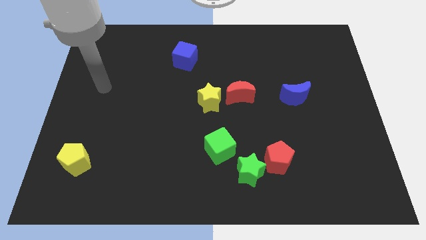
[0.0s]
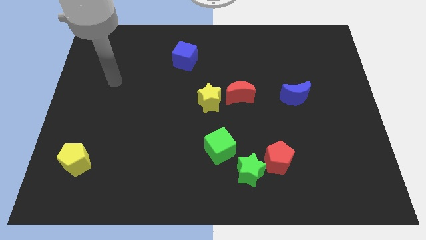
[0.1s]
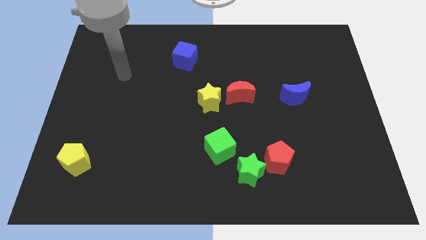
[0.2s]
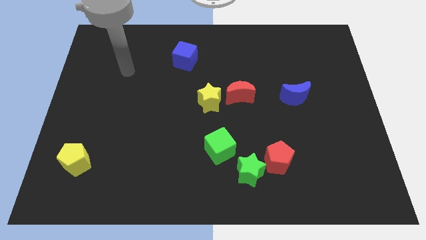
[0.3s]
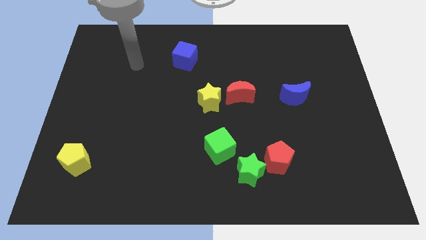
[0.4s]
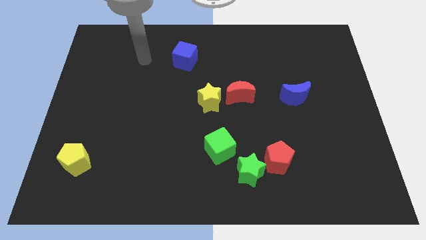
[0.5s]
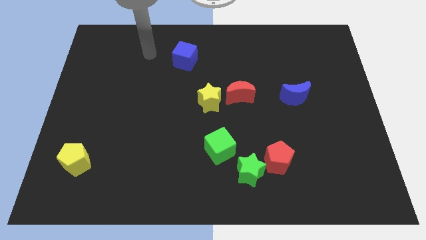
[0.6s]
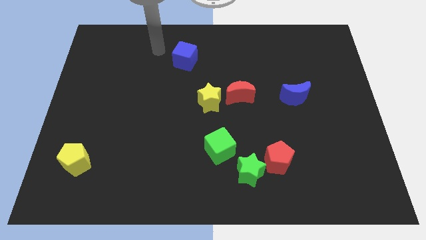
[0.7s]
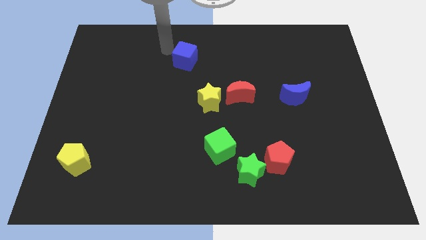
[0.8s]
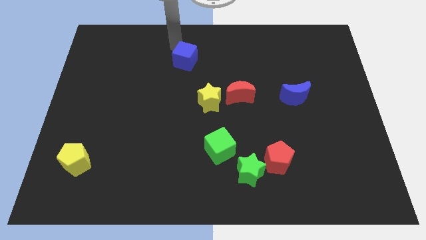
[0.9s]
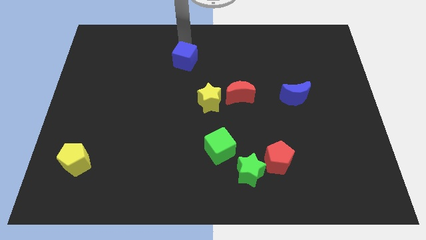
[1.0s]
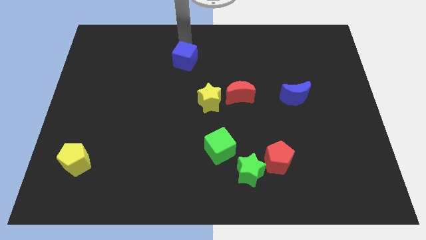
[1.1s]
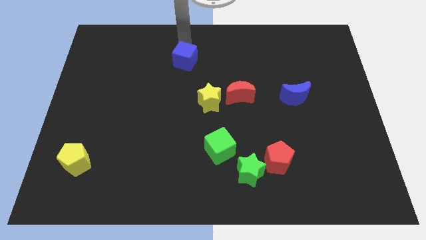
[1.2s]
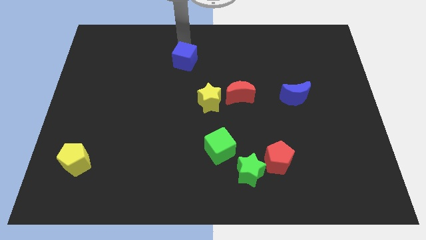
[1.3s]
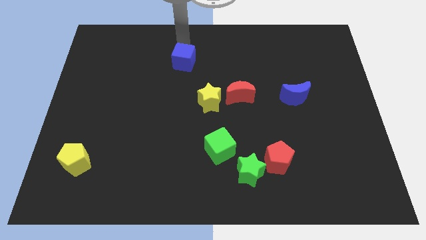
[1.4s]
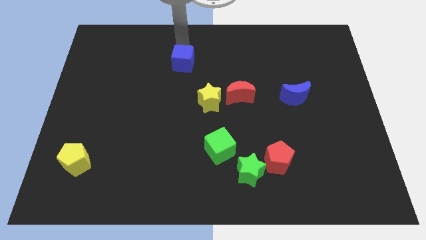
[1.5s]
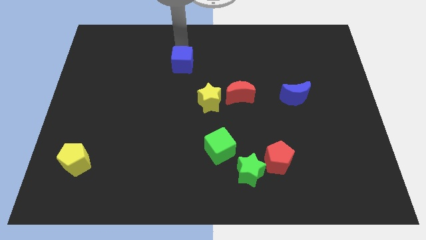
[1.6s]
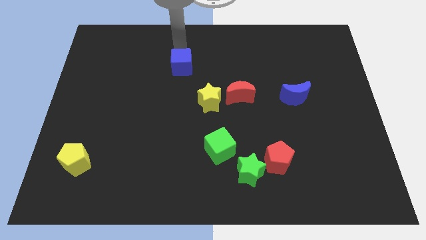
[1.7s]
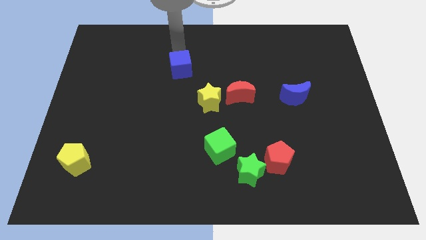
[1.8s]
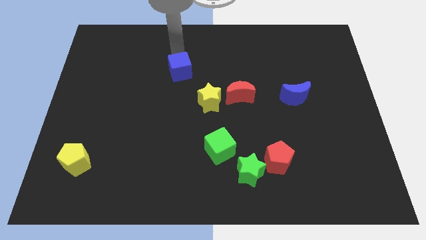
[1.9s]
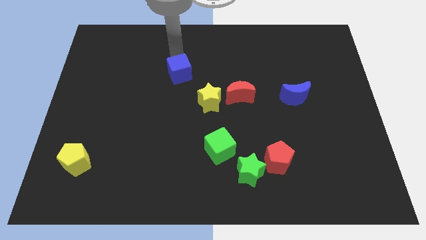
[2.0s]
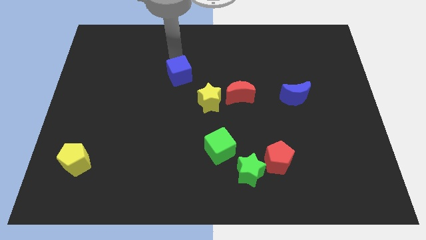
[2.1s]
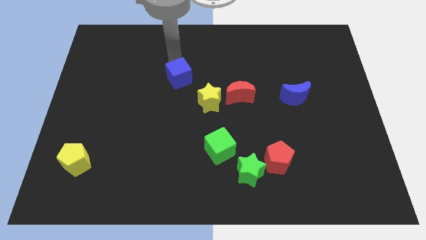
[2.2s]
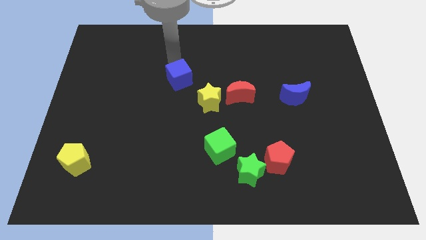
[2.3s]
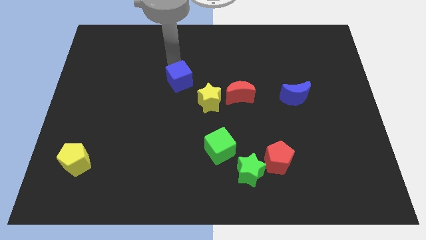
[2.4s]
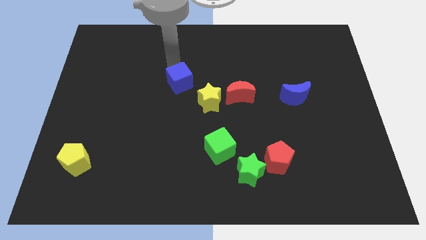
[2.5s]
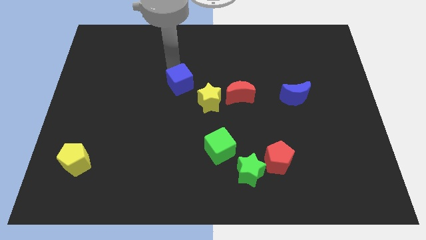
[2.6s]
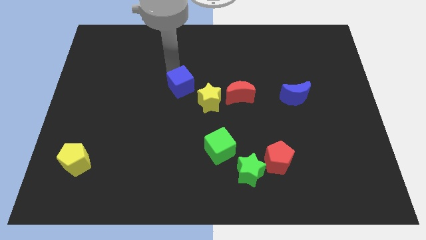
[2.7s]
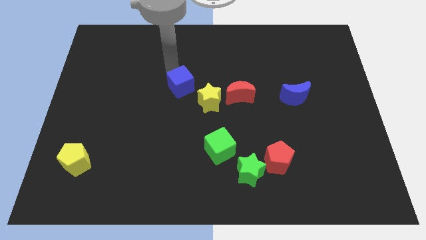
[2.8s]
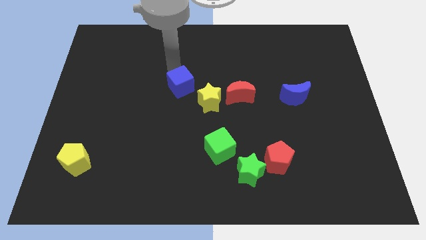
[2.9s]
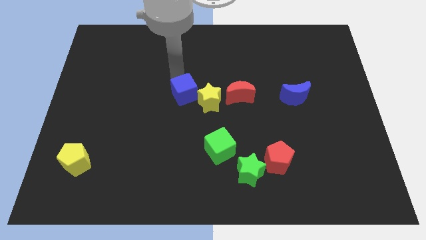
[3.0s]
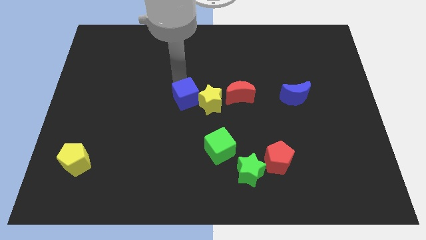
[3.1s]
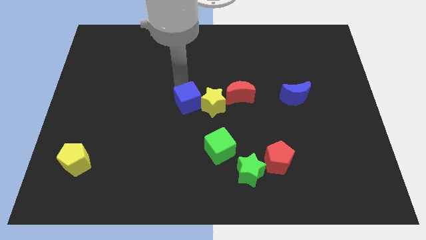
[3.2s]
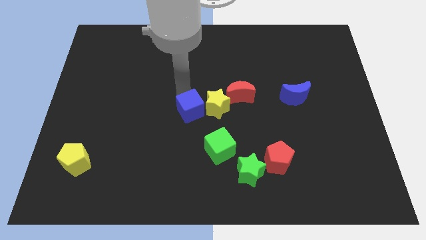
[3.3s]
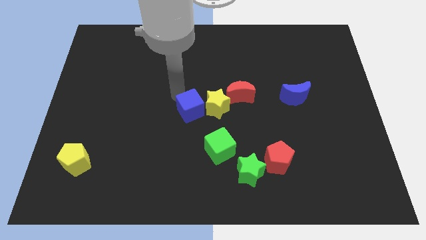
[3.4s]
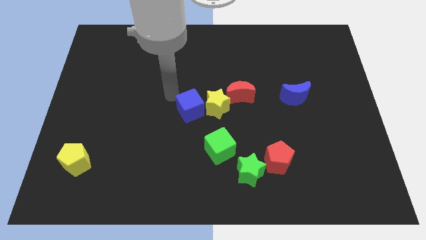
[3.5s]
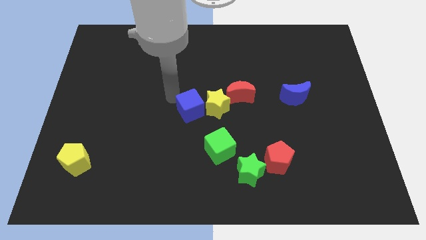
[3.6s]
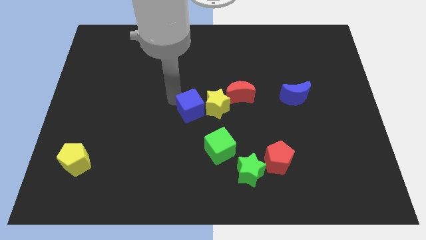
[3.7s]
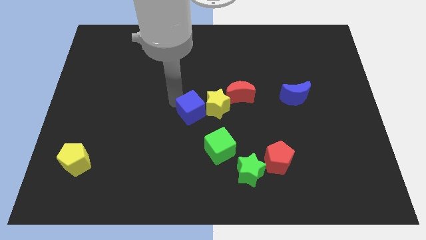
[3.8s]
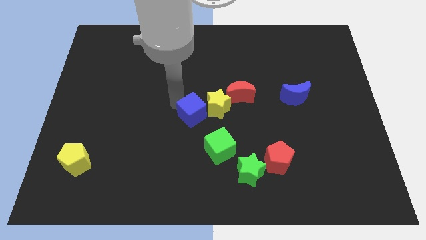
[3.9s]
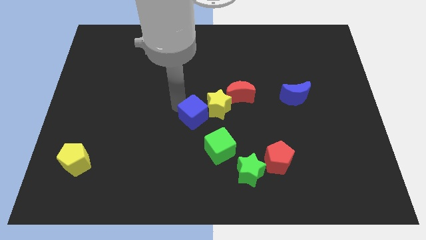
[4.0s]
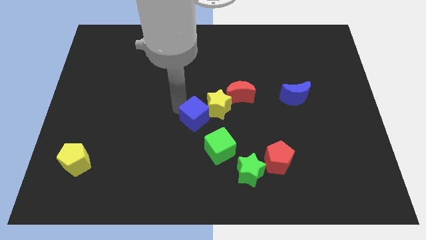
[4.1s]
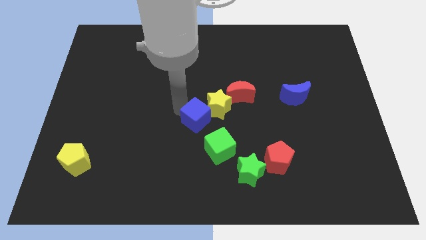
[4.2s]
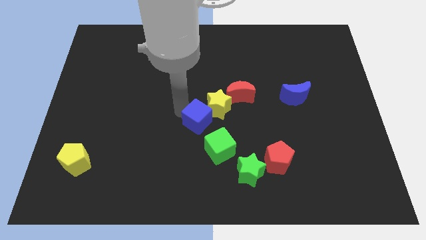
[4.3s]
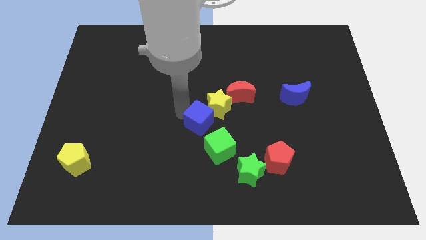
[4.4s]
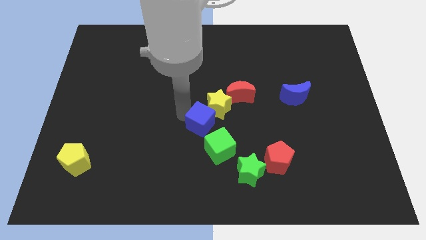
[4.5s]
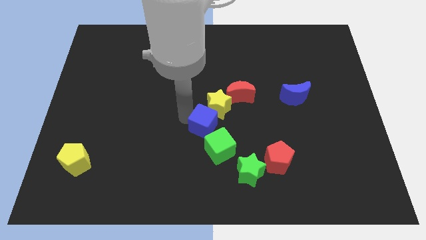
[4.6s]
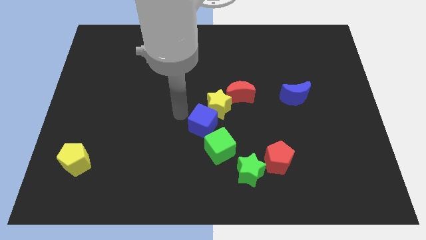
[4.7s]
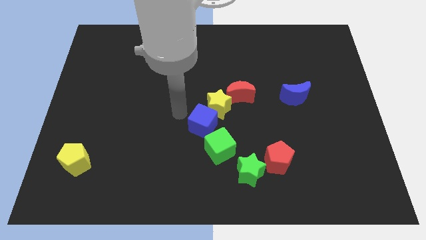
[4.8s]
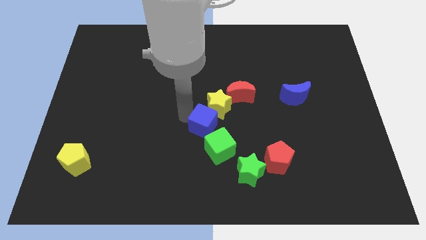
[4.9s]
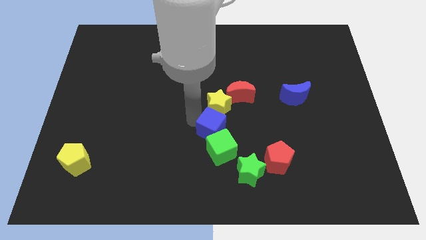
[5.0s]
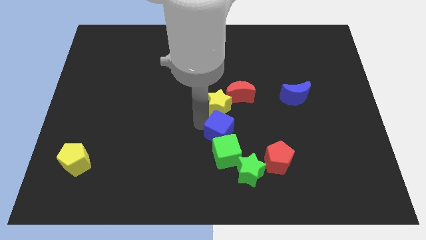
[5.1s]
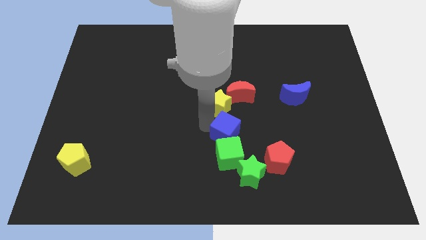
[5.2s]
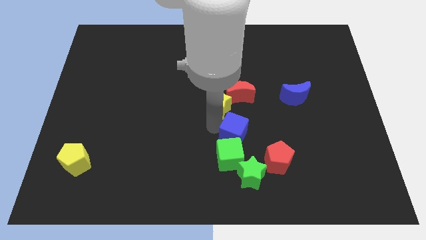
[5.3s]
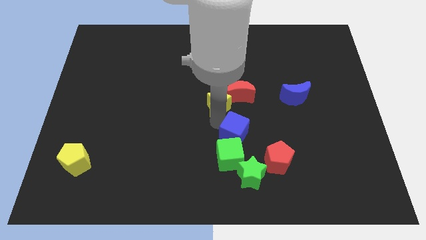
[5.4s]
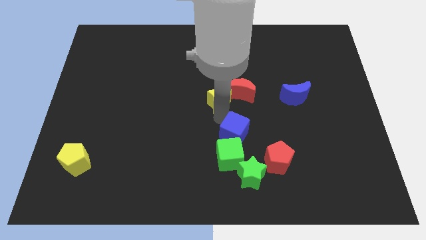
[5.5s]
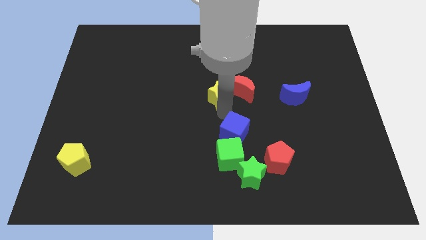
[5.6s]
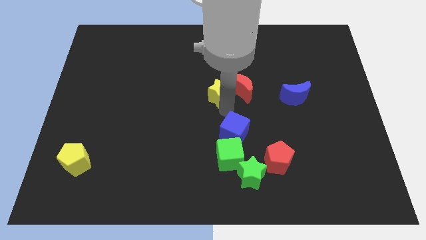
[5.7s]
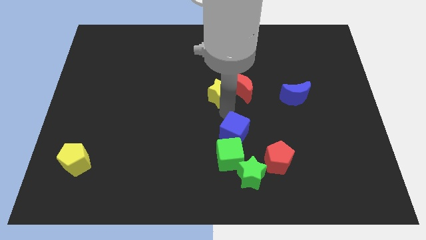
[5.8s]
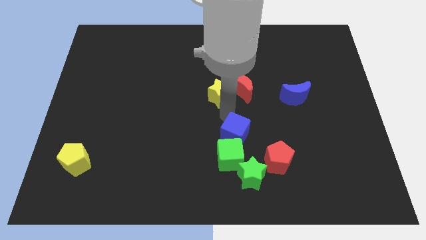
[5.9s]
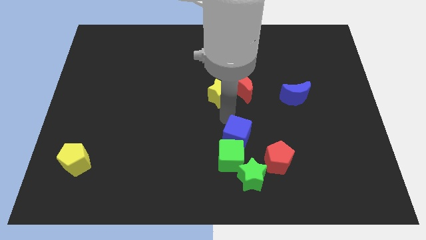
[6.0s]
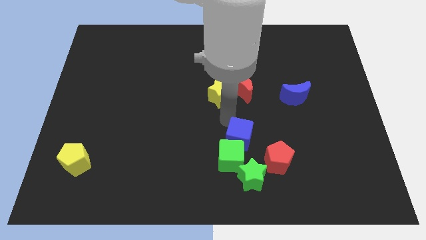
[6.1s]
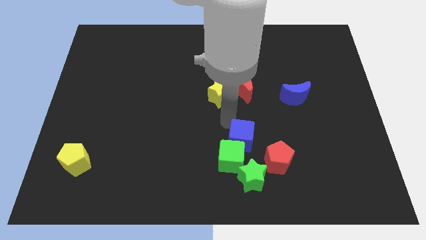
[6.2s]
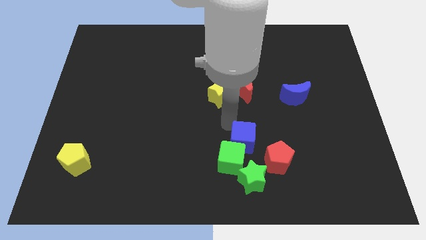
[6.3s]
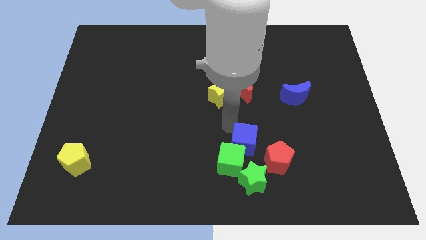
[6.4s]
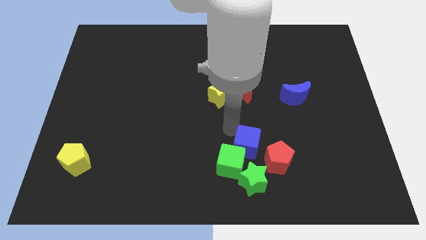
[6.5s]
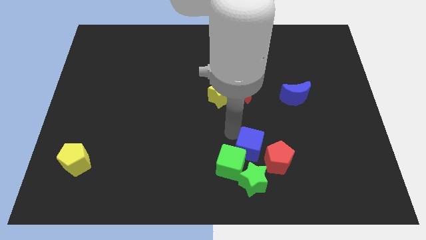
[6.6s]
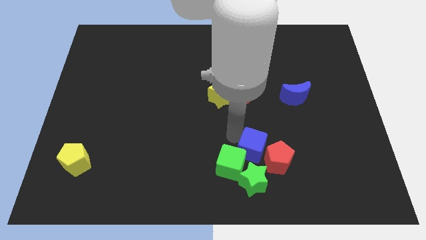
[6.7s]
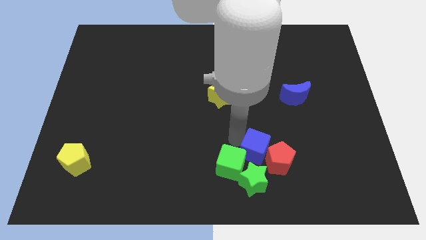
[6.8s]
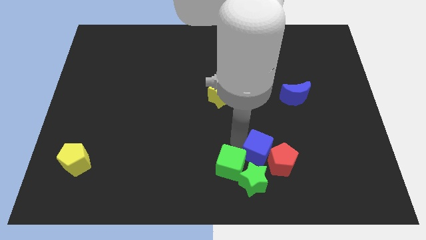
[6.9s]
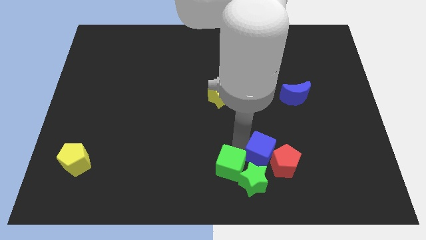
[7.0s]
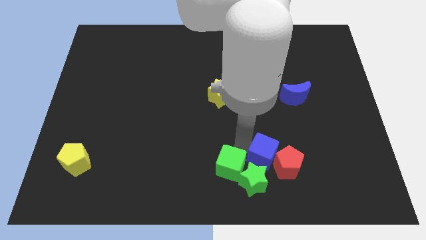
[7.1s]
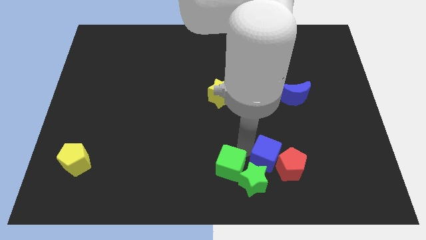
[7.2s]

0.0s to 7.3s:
slide the blue cube to the green star

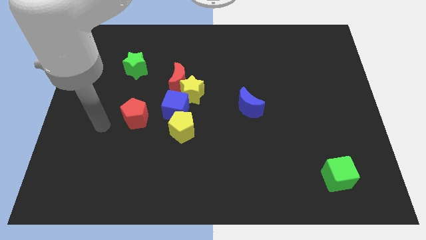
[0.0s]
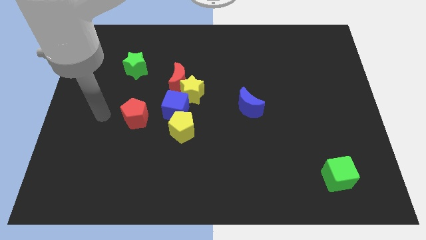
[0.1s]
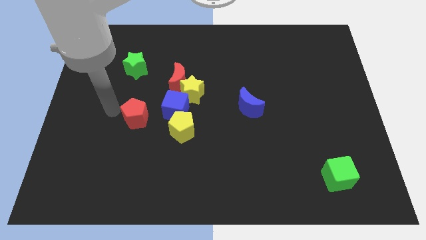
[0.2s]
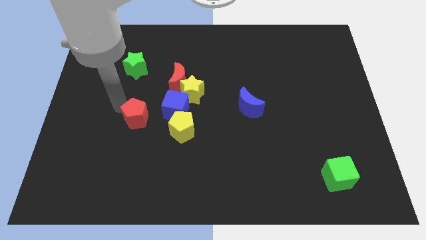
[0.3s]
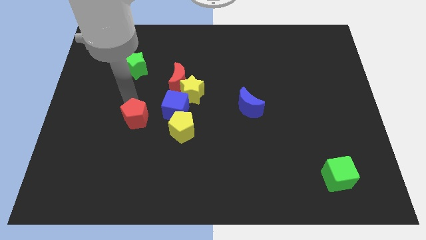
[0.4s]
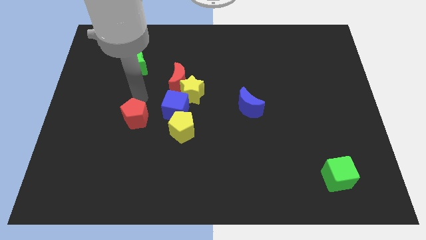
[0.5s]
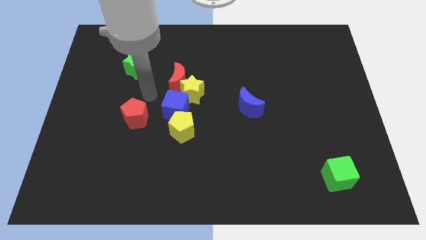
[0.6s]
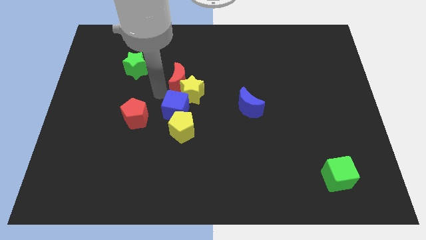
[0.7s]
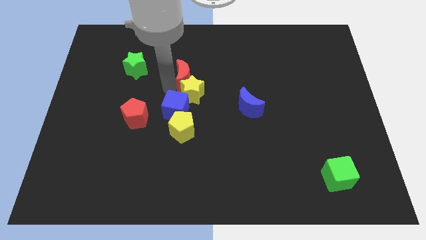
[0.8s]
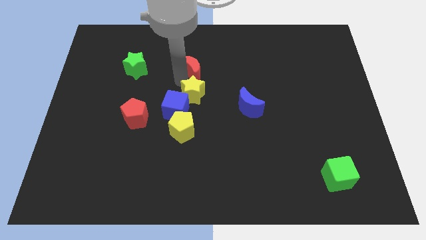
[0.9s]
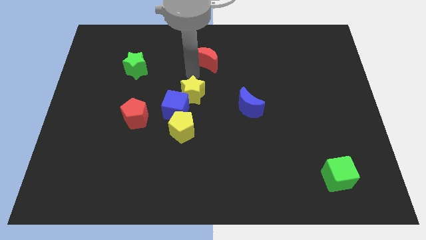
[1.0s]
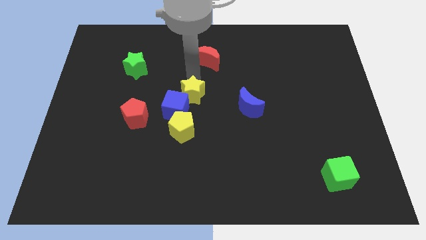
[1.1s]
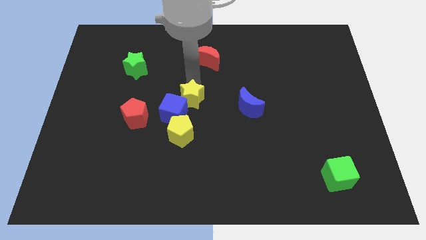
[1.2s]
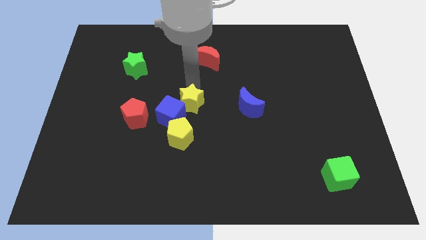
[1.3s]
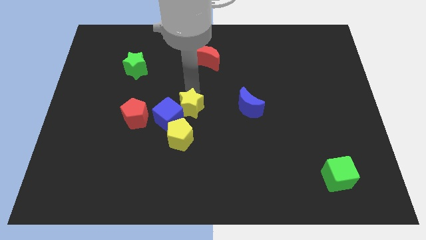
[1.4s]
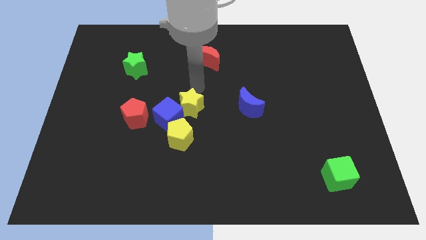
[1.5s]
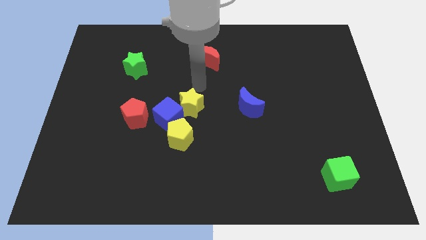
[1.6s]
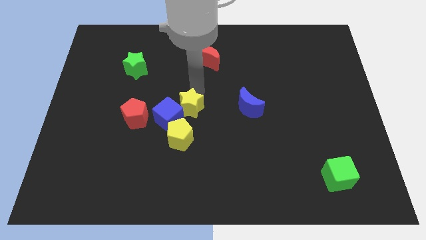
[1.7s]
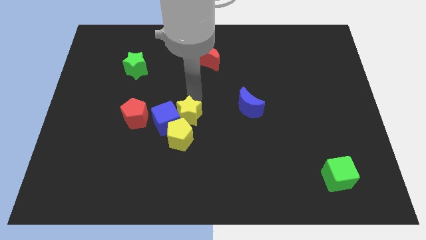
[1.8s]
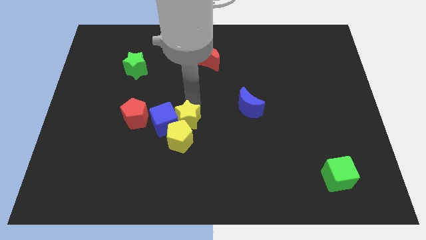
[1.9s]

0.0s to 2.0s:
push the yellow star towards the yellow pentagon
